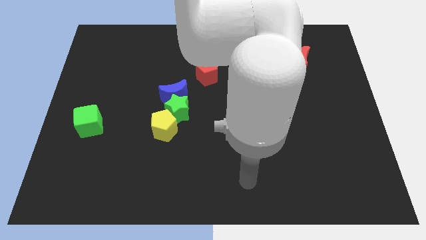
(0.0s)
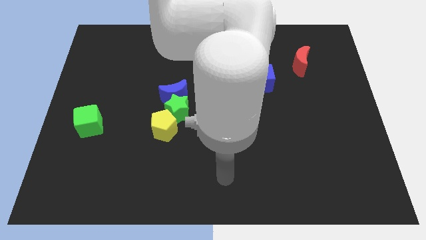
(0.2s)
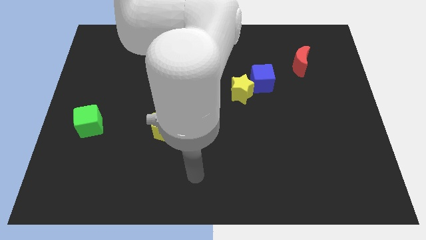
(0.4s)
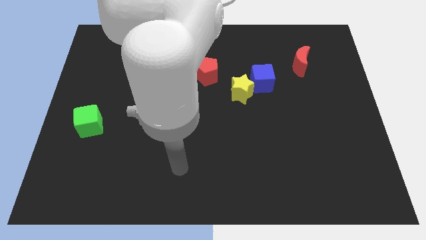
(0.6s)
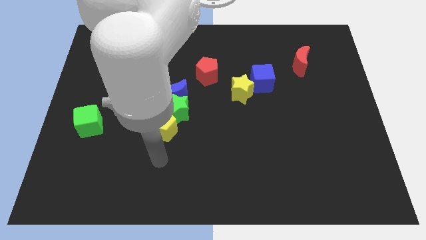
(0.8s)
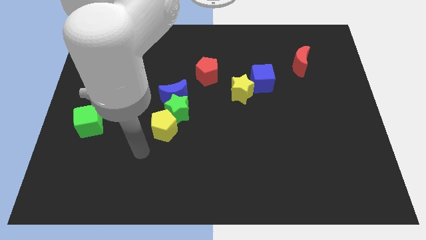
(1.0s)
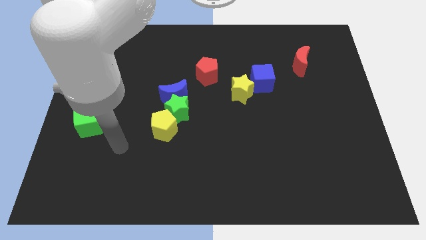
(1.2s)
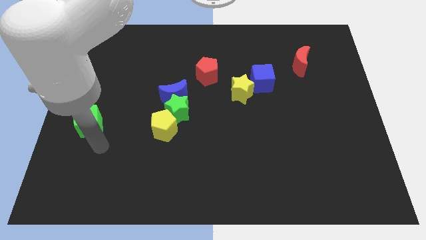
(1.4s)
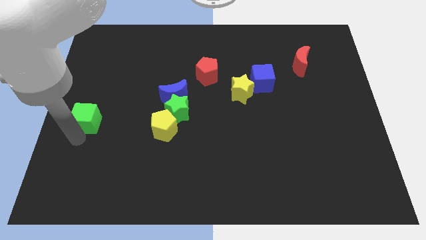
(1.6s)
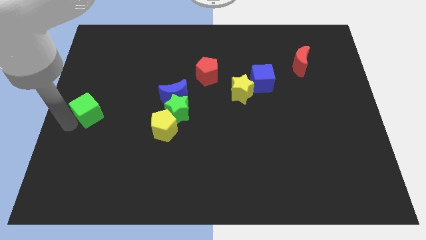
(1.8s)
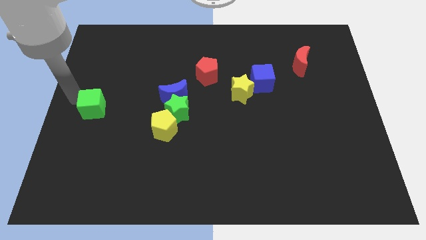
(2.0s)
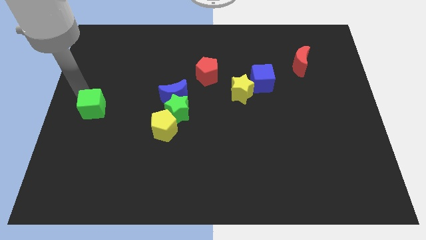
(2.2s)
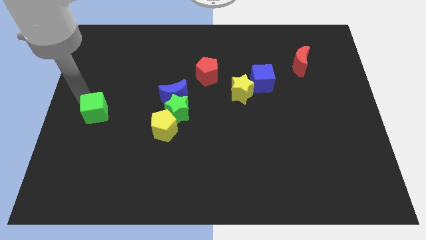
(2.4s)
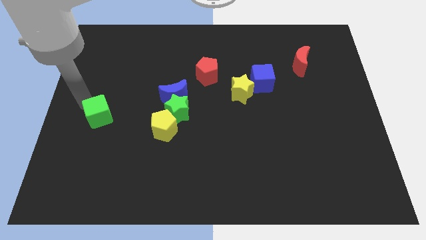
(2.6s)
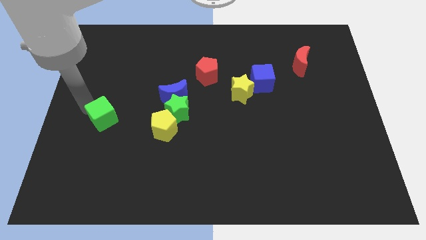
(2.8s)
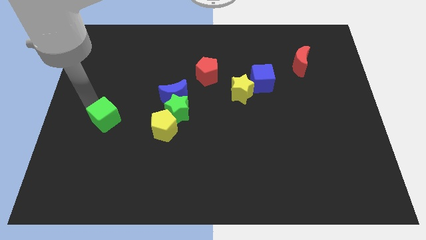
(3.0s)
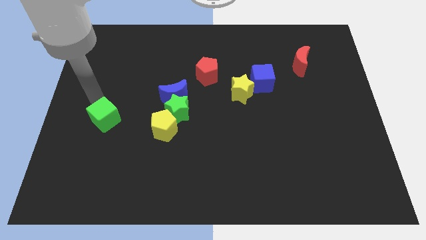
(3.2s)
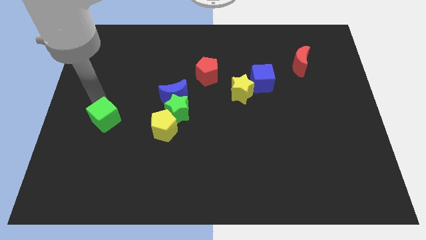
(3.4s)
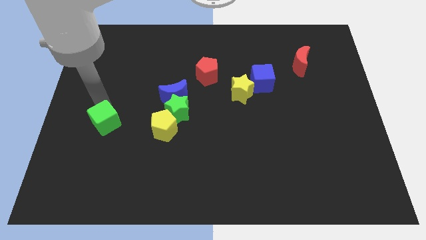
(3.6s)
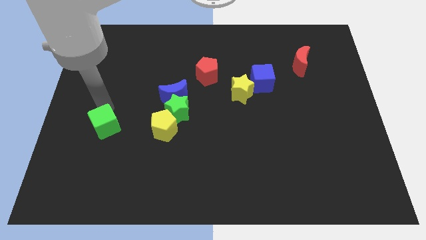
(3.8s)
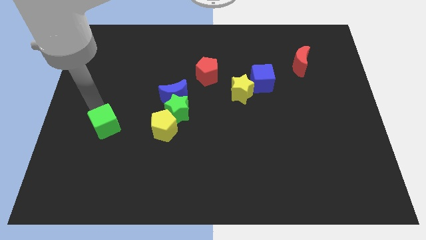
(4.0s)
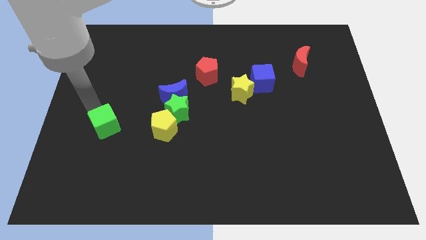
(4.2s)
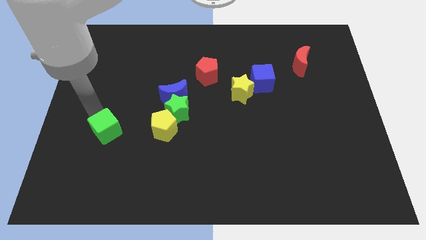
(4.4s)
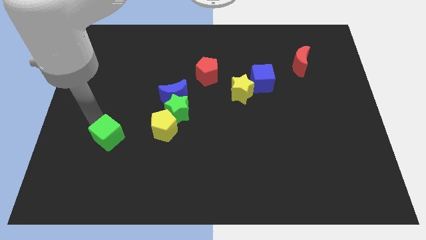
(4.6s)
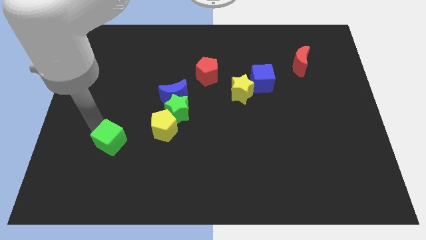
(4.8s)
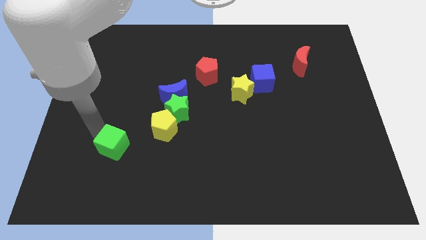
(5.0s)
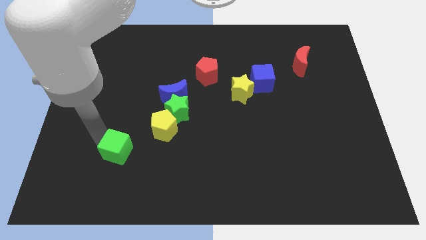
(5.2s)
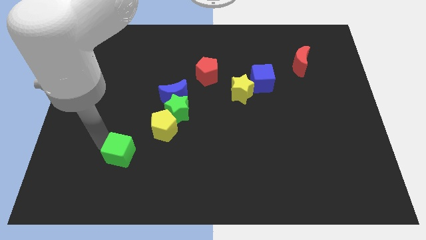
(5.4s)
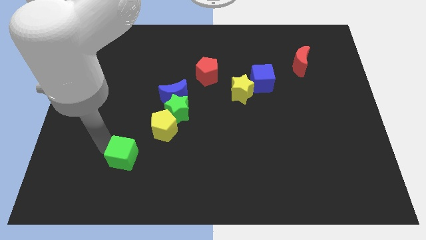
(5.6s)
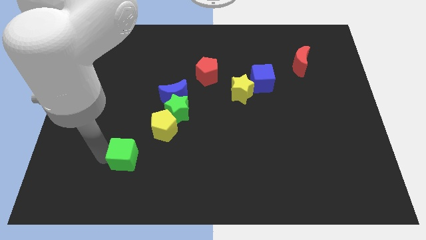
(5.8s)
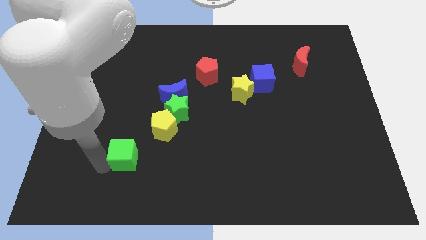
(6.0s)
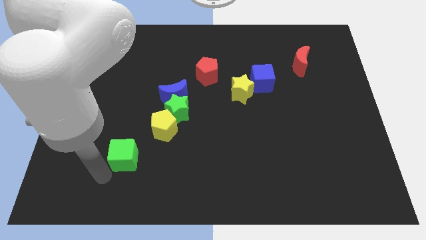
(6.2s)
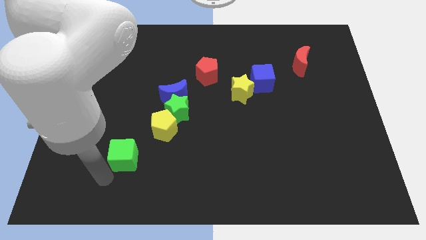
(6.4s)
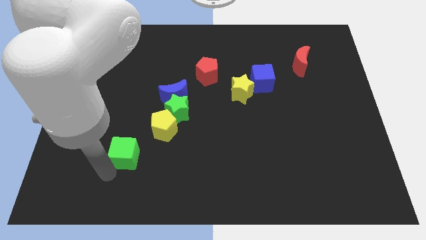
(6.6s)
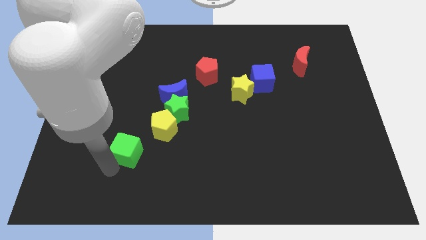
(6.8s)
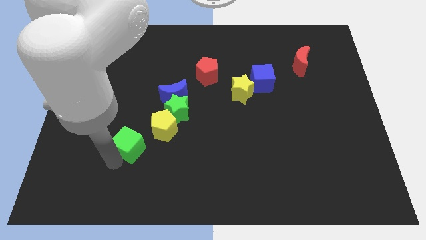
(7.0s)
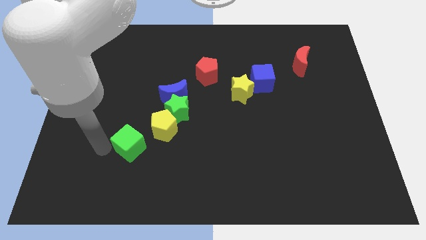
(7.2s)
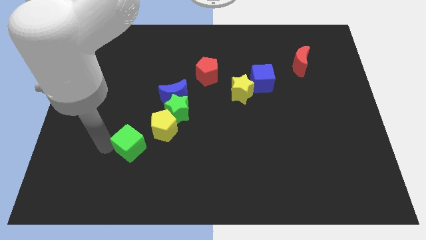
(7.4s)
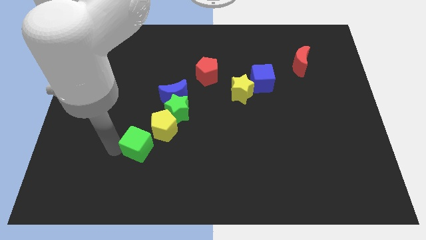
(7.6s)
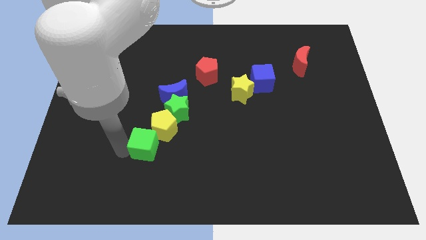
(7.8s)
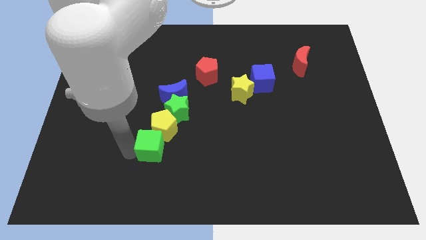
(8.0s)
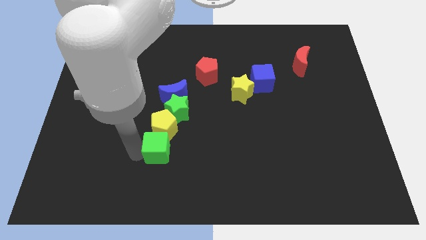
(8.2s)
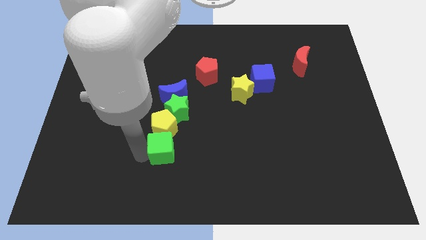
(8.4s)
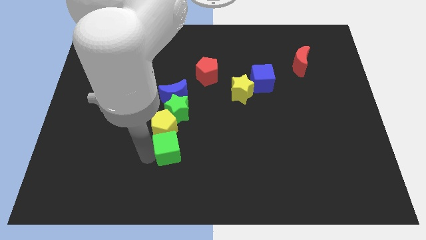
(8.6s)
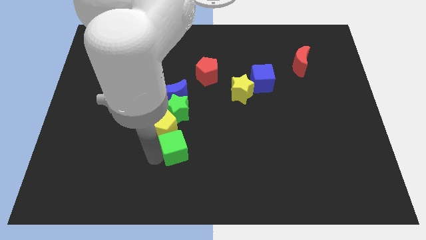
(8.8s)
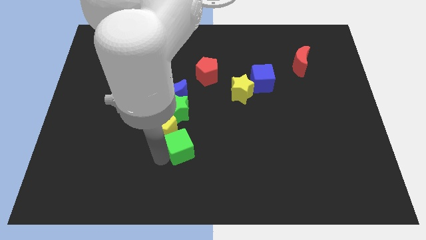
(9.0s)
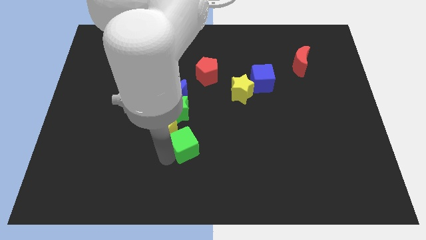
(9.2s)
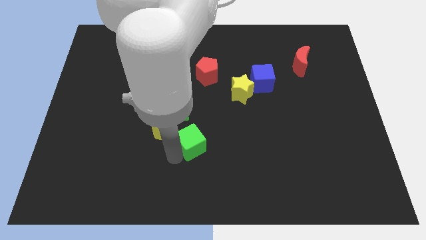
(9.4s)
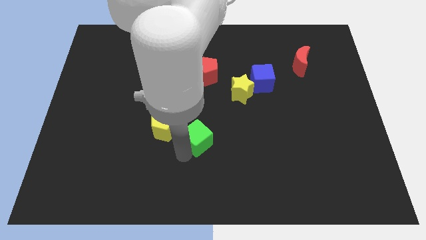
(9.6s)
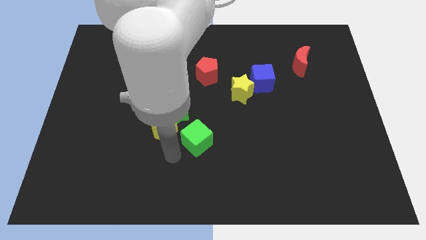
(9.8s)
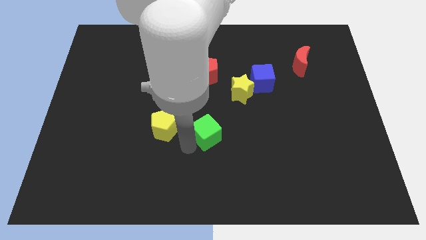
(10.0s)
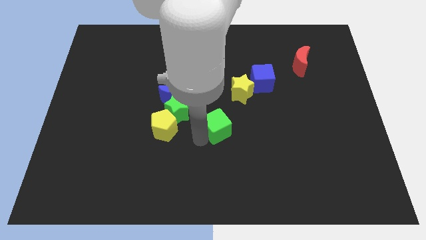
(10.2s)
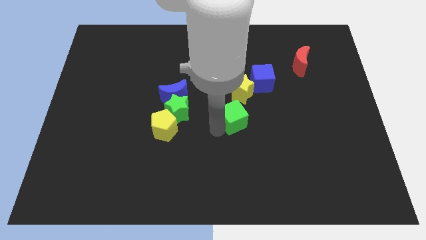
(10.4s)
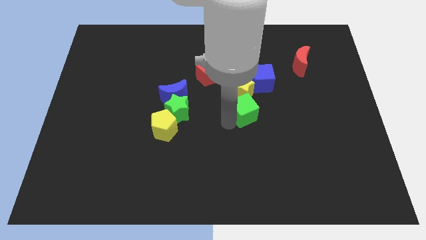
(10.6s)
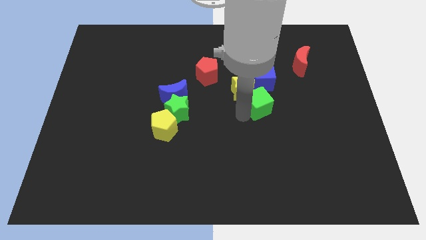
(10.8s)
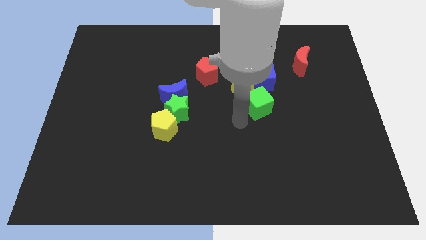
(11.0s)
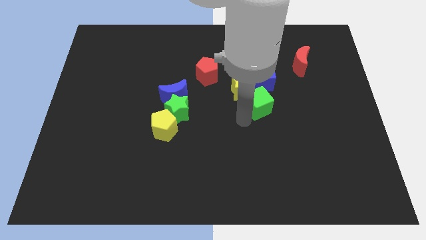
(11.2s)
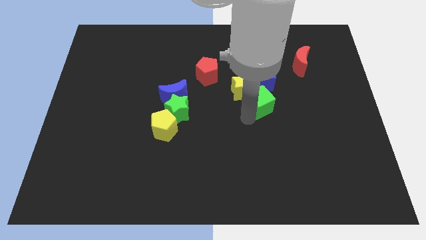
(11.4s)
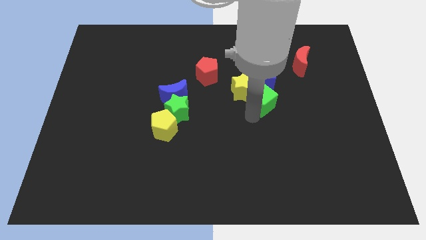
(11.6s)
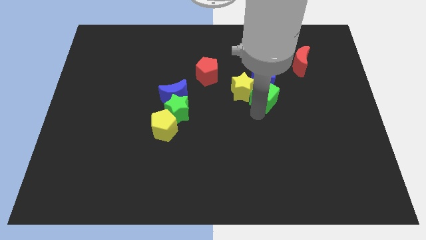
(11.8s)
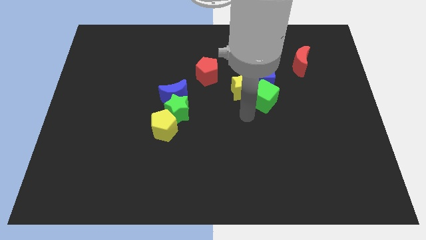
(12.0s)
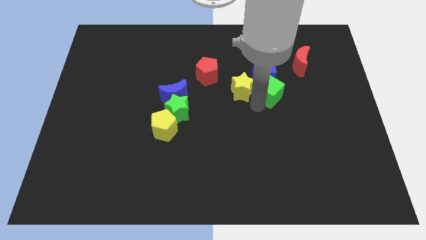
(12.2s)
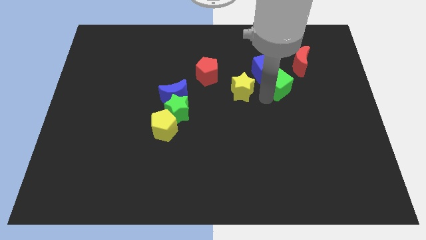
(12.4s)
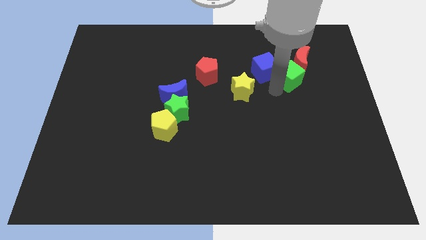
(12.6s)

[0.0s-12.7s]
put the green cube close to the red moon

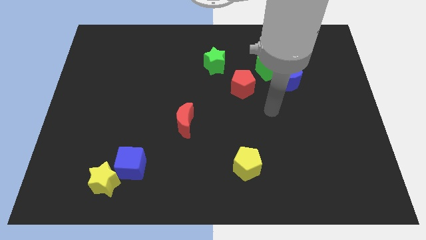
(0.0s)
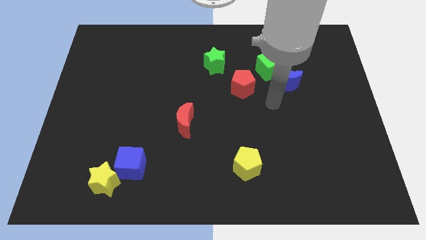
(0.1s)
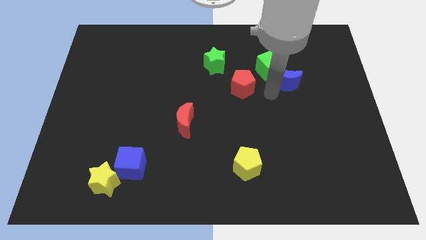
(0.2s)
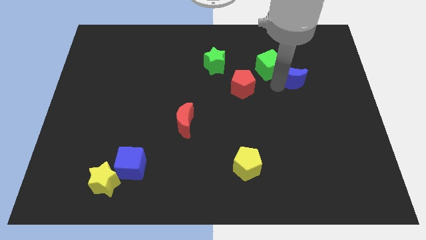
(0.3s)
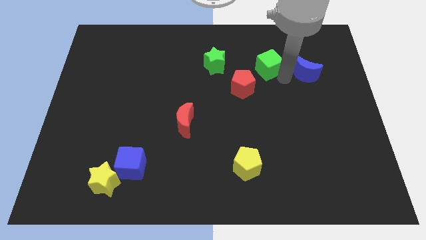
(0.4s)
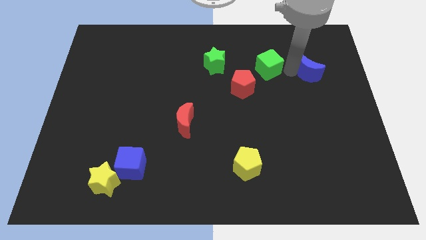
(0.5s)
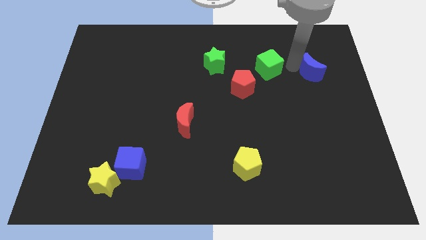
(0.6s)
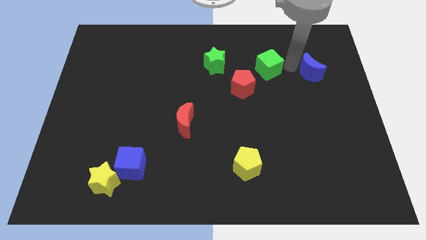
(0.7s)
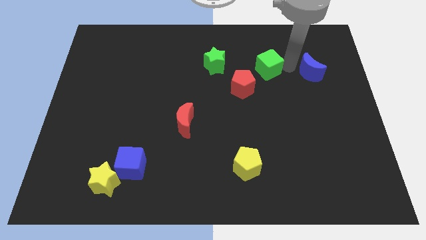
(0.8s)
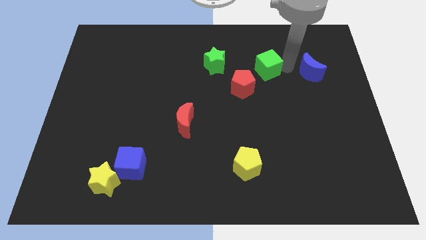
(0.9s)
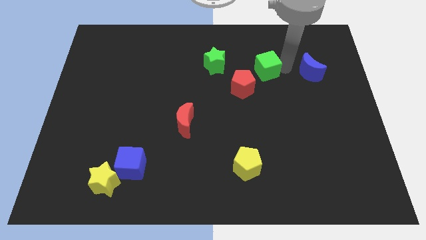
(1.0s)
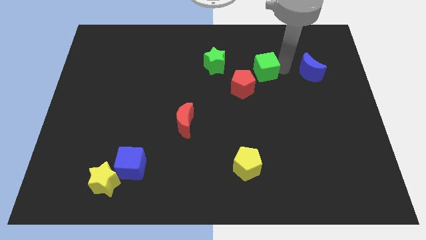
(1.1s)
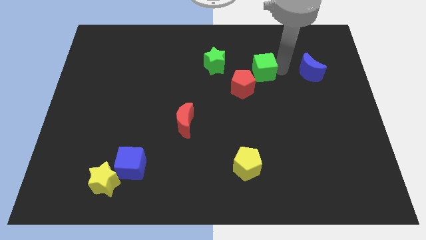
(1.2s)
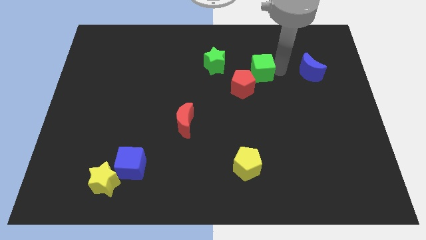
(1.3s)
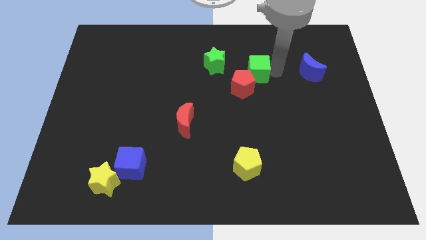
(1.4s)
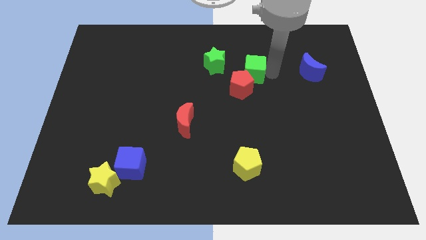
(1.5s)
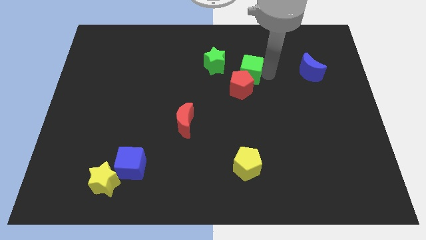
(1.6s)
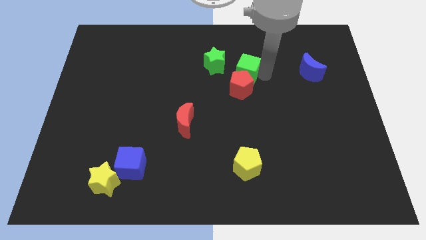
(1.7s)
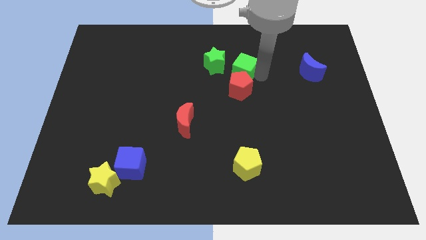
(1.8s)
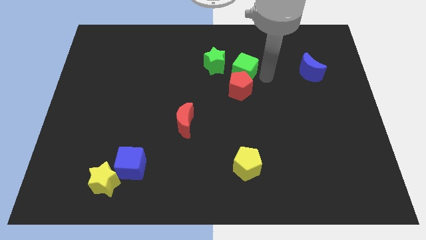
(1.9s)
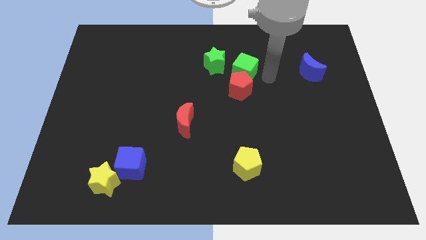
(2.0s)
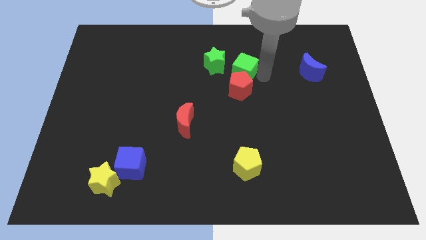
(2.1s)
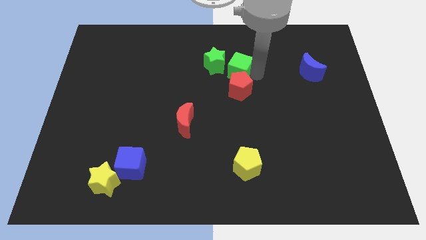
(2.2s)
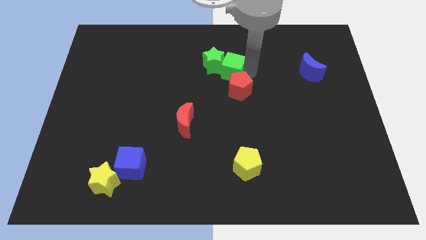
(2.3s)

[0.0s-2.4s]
slide the green cube next to the green star
